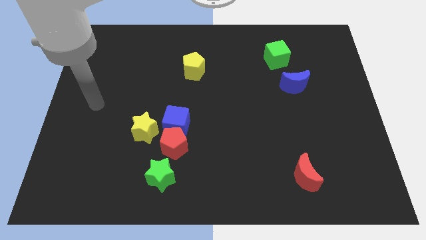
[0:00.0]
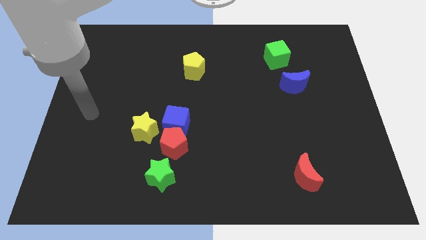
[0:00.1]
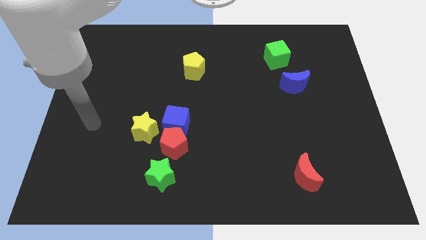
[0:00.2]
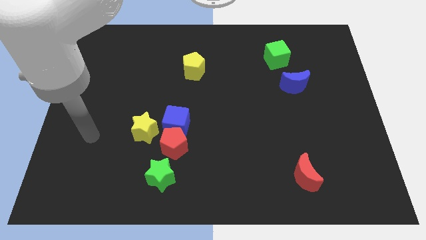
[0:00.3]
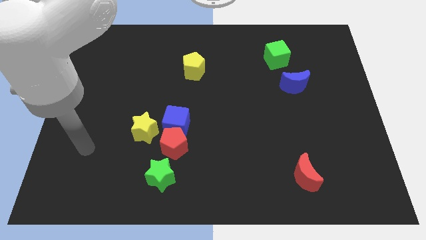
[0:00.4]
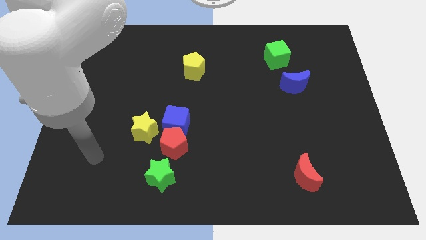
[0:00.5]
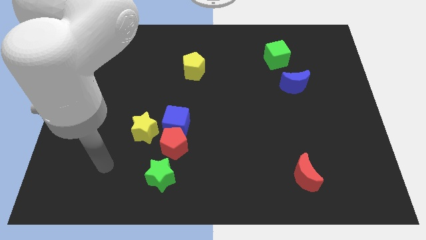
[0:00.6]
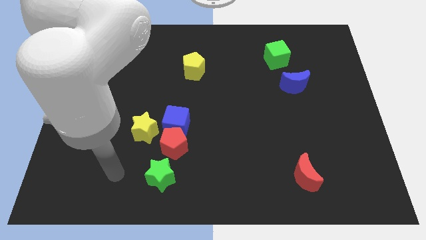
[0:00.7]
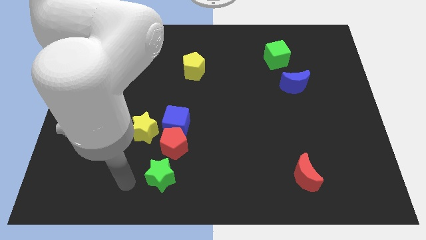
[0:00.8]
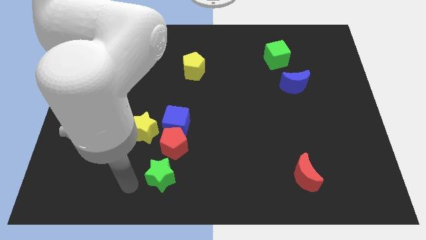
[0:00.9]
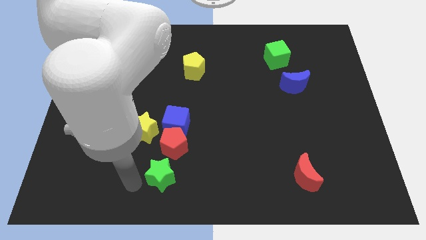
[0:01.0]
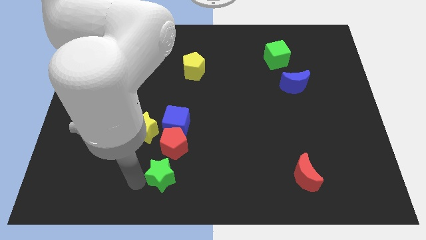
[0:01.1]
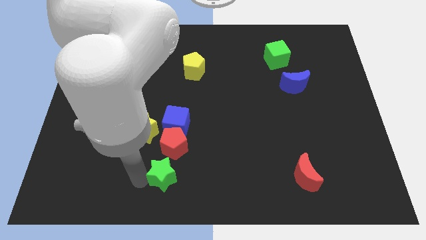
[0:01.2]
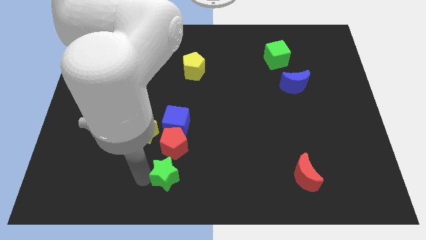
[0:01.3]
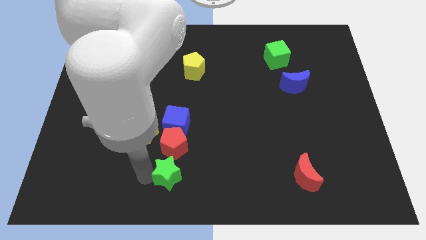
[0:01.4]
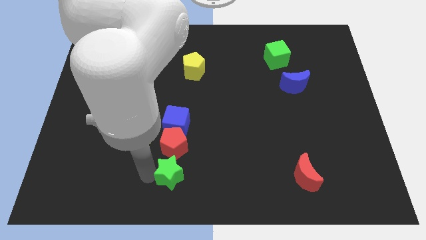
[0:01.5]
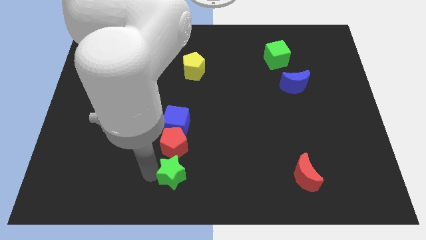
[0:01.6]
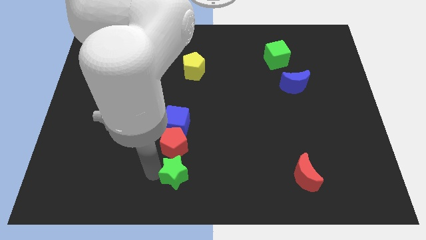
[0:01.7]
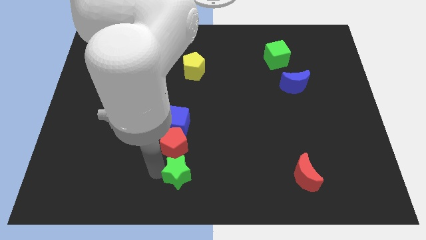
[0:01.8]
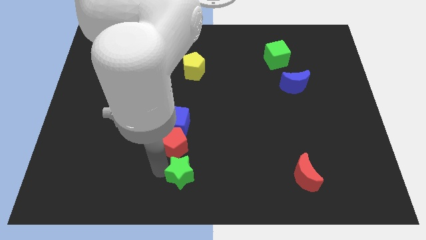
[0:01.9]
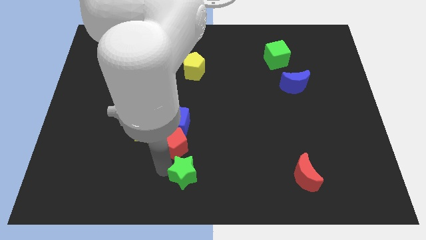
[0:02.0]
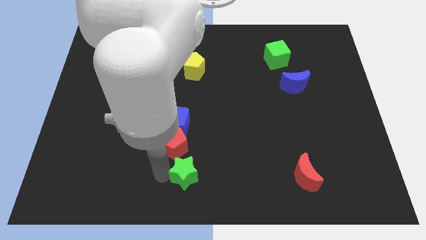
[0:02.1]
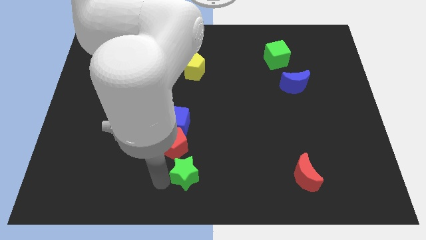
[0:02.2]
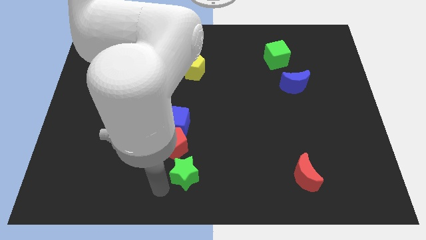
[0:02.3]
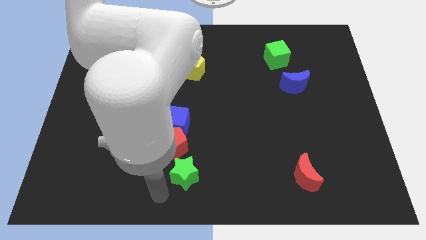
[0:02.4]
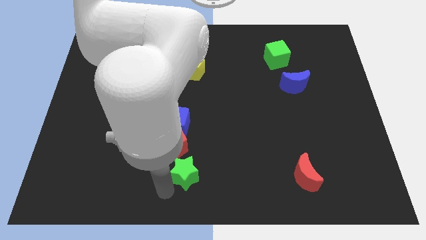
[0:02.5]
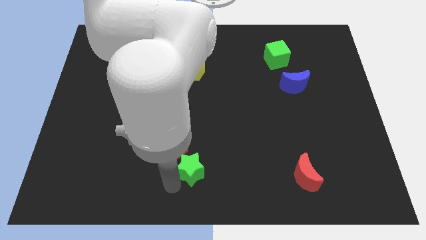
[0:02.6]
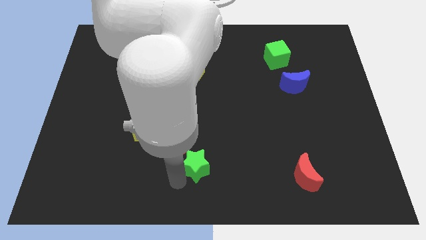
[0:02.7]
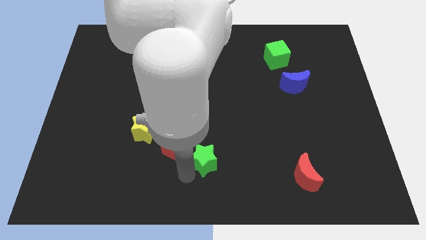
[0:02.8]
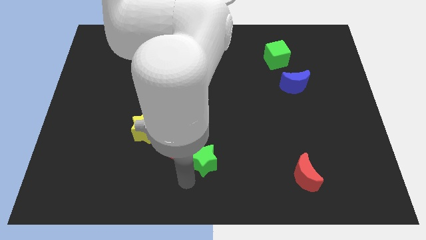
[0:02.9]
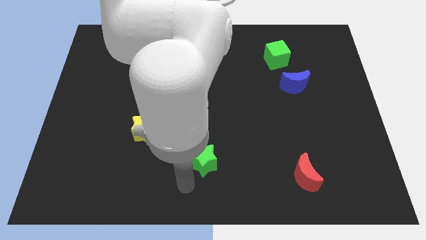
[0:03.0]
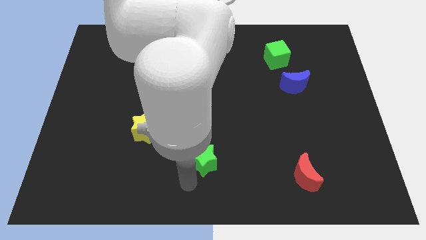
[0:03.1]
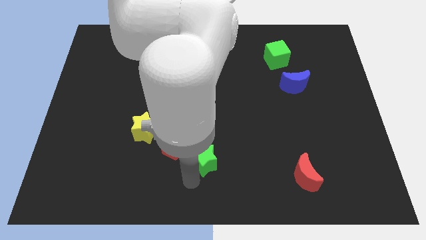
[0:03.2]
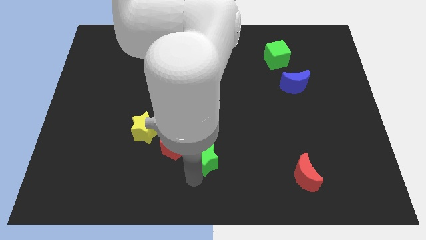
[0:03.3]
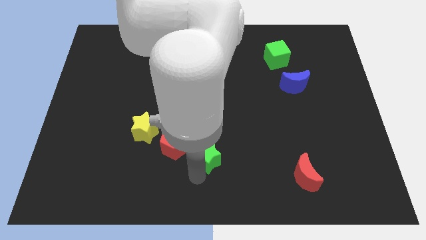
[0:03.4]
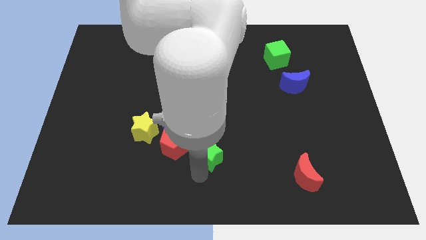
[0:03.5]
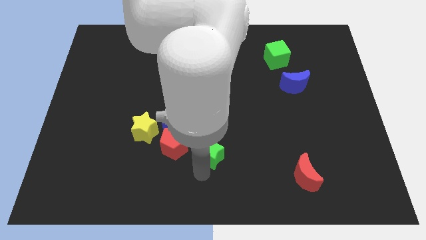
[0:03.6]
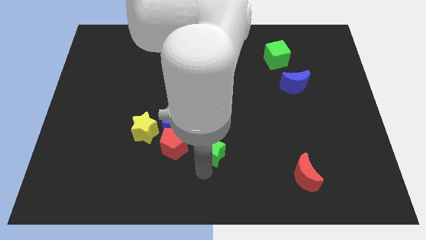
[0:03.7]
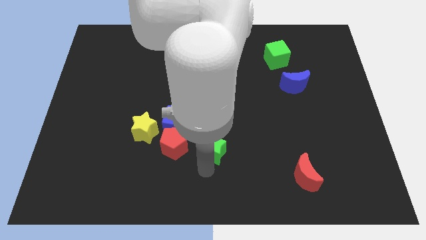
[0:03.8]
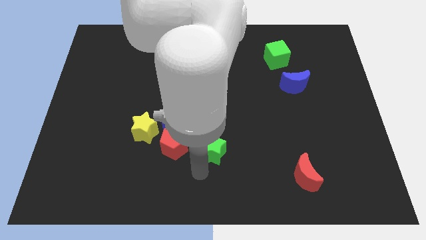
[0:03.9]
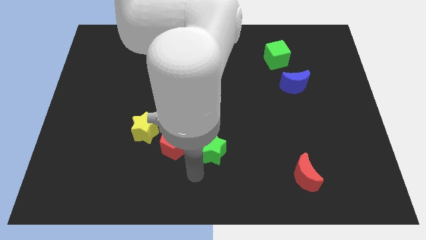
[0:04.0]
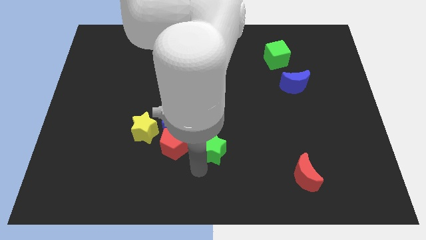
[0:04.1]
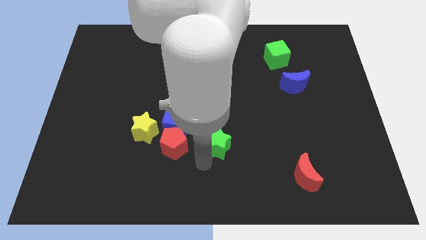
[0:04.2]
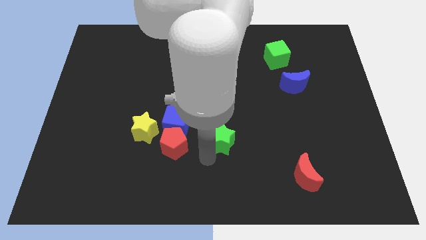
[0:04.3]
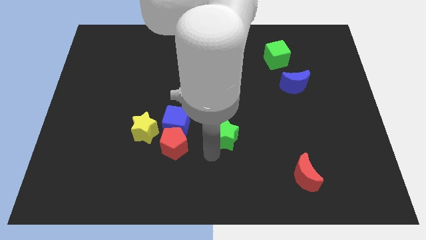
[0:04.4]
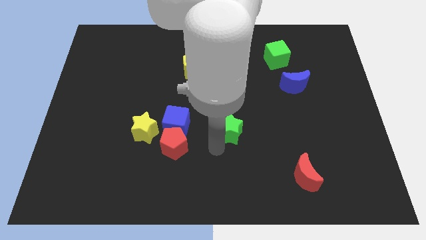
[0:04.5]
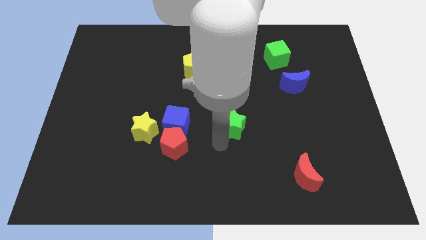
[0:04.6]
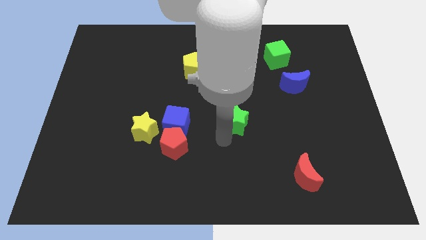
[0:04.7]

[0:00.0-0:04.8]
move the green star diagonally upwards and to the right

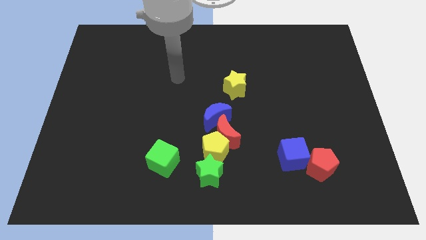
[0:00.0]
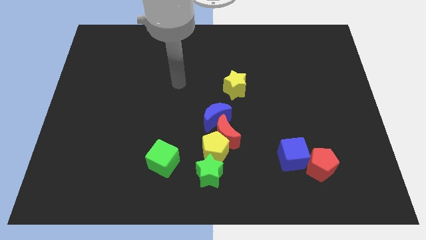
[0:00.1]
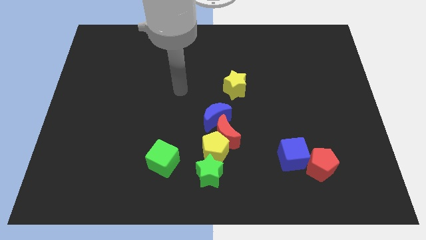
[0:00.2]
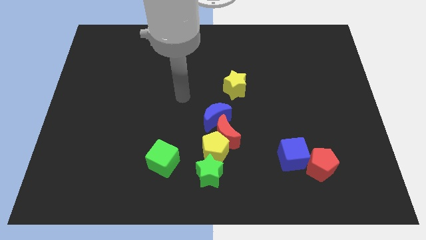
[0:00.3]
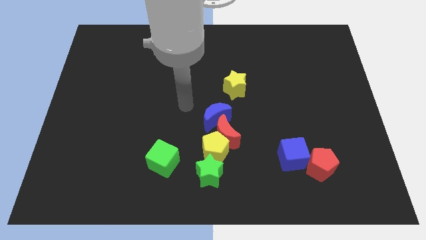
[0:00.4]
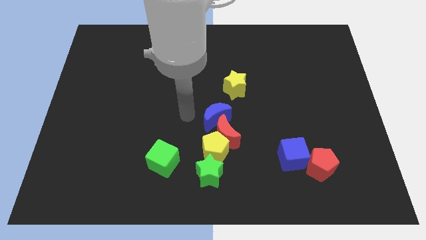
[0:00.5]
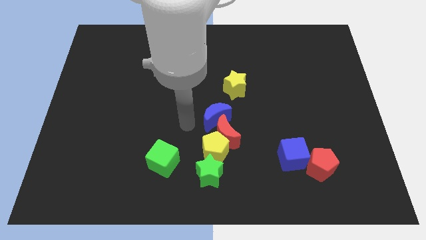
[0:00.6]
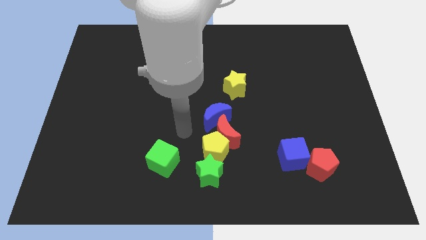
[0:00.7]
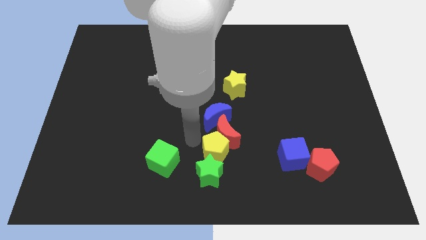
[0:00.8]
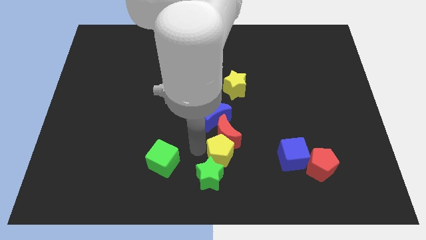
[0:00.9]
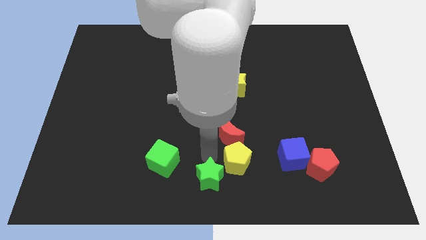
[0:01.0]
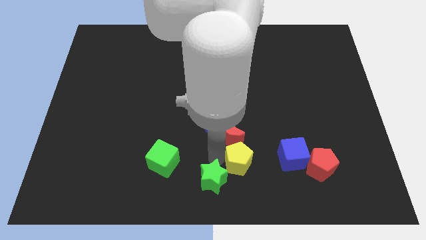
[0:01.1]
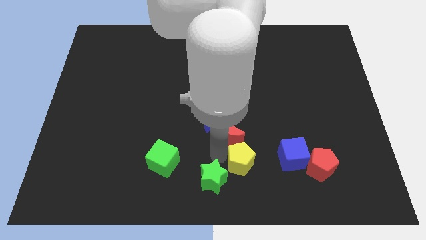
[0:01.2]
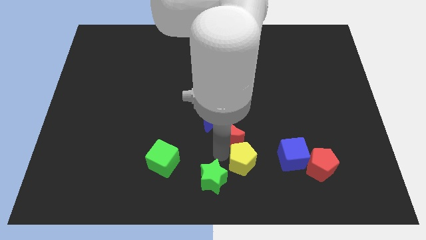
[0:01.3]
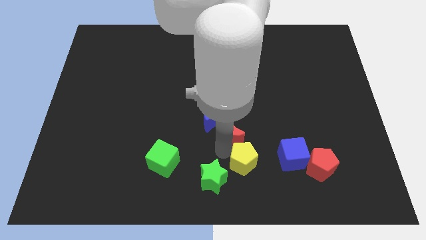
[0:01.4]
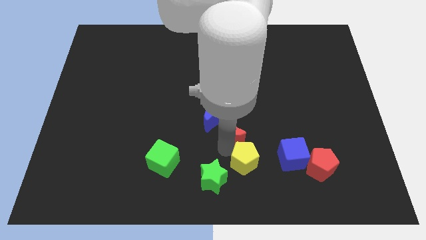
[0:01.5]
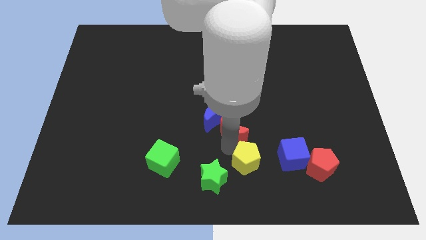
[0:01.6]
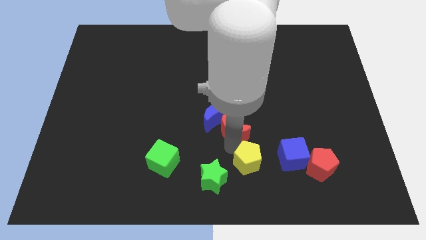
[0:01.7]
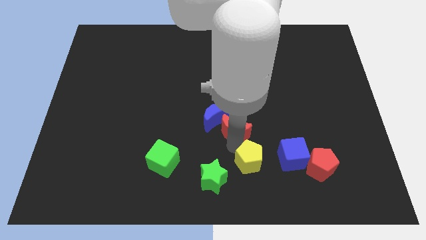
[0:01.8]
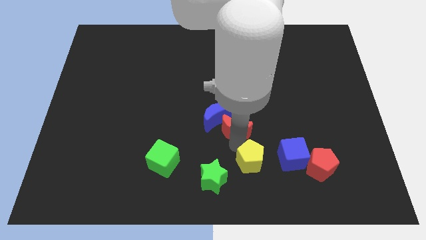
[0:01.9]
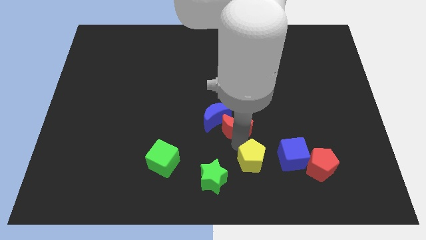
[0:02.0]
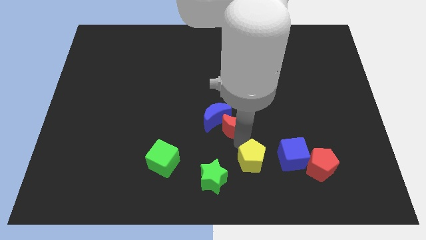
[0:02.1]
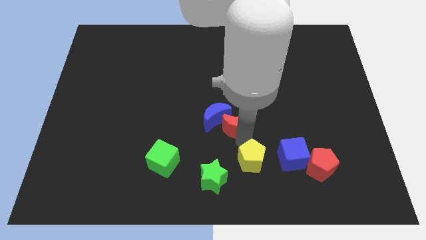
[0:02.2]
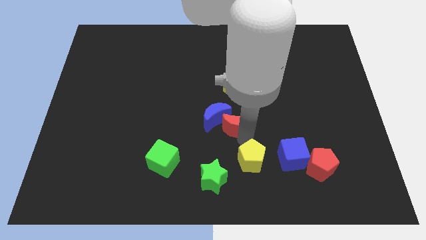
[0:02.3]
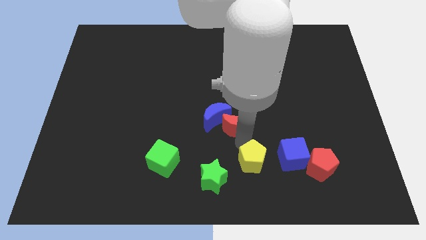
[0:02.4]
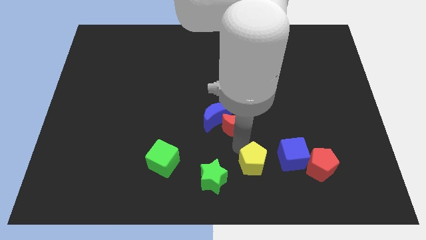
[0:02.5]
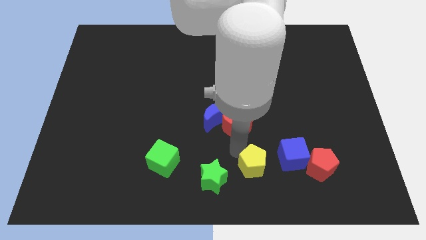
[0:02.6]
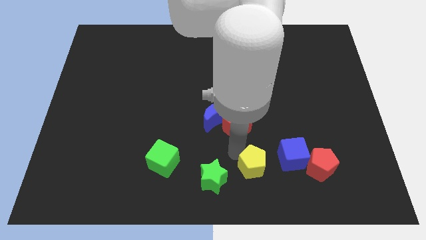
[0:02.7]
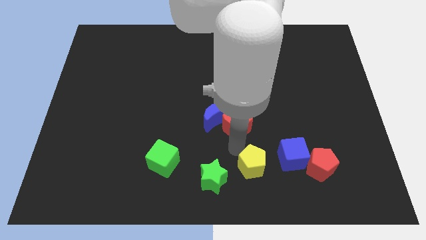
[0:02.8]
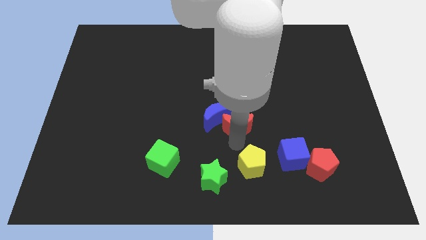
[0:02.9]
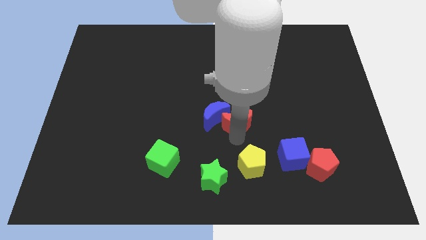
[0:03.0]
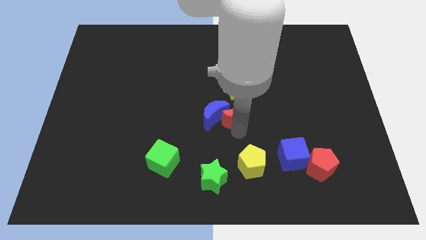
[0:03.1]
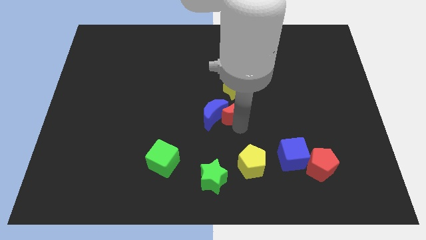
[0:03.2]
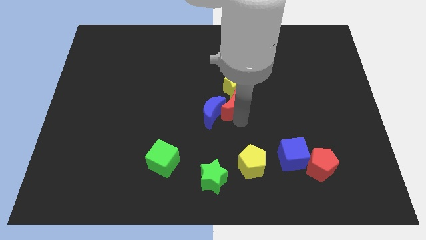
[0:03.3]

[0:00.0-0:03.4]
push the red moon a little up
